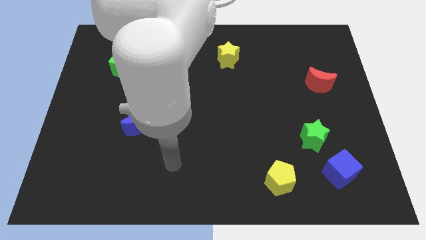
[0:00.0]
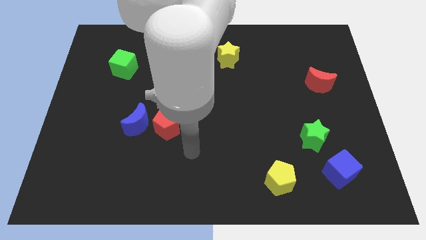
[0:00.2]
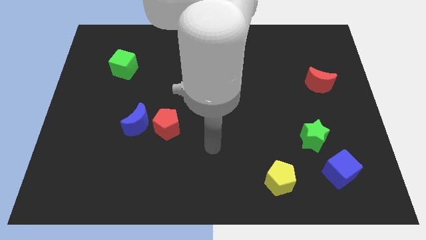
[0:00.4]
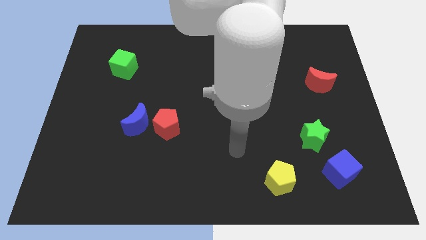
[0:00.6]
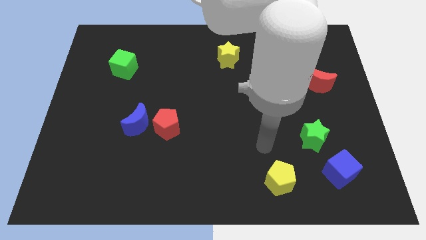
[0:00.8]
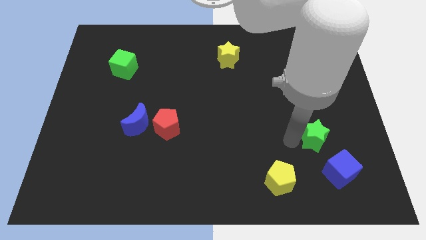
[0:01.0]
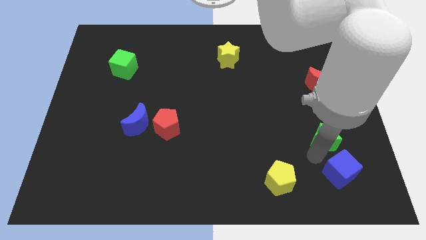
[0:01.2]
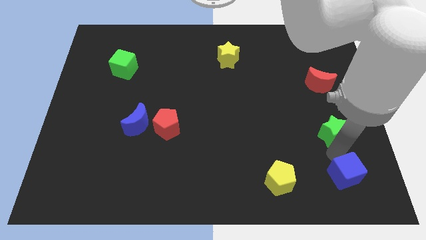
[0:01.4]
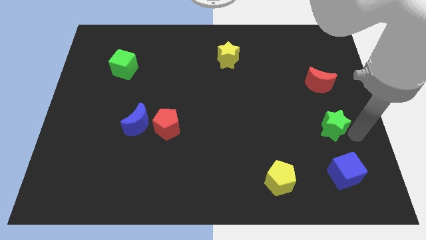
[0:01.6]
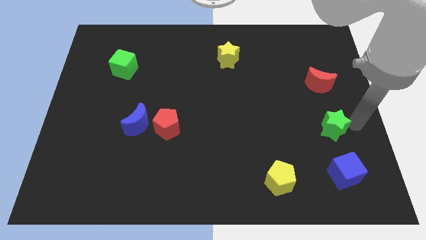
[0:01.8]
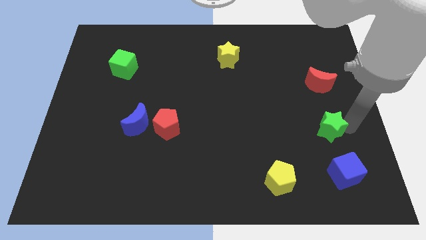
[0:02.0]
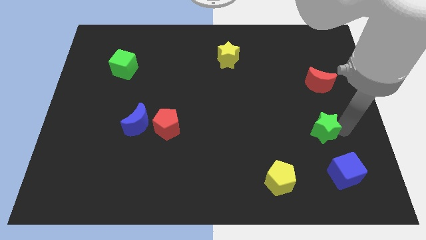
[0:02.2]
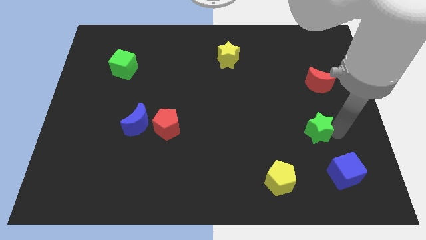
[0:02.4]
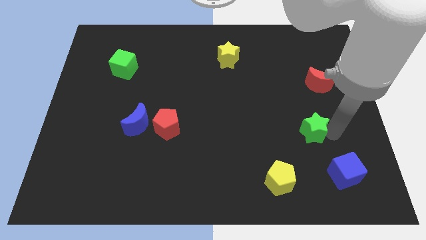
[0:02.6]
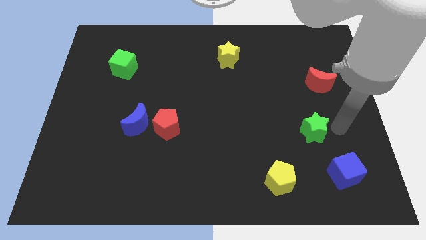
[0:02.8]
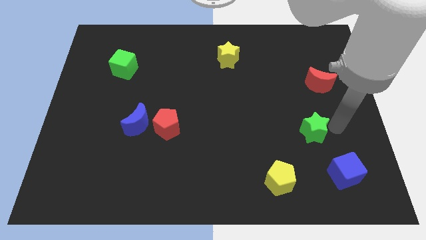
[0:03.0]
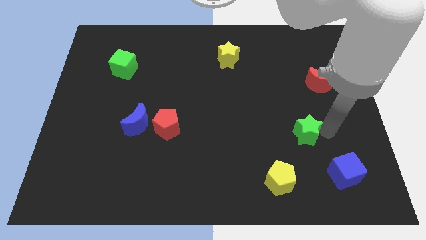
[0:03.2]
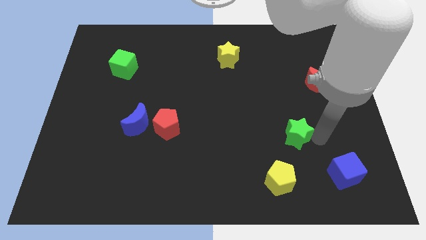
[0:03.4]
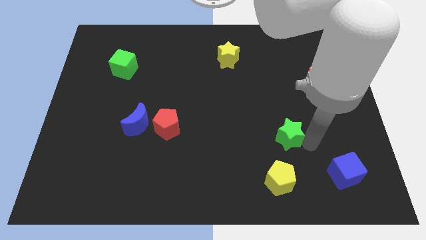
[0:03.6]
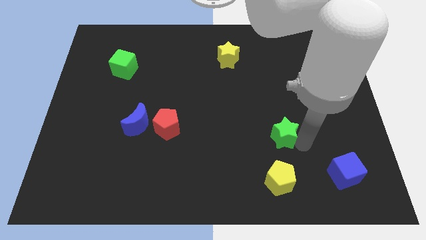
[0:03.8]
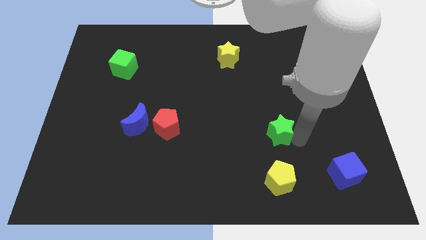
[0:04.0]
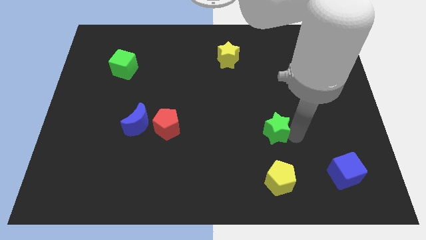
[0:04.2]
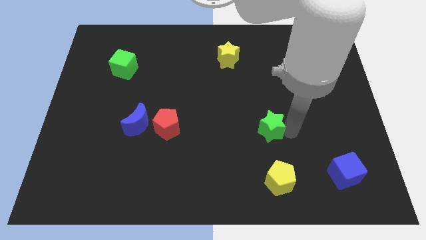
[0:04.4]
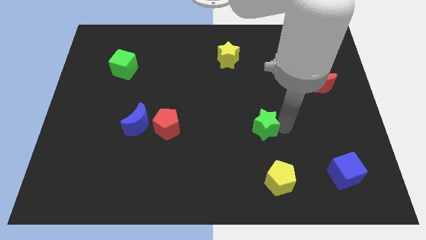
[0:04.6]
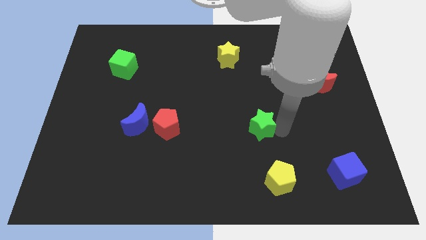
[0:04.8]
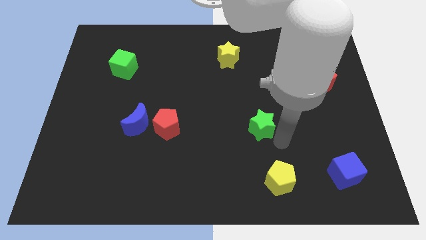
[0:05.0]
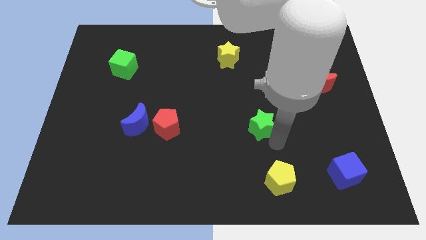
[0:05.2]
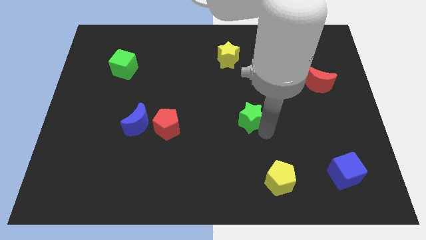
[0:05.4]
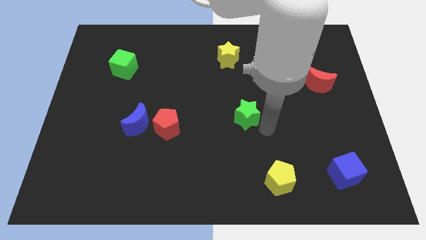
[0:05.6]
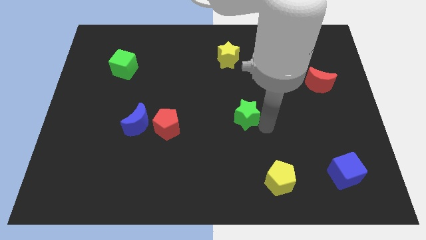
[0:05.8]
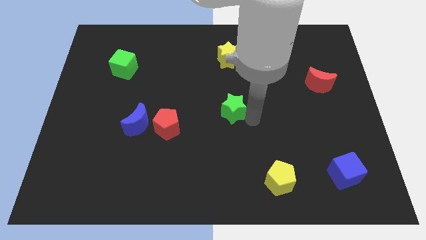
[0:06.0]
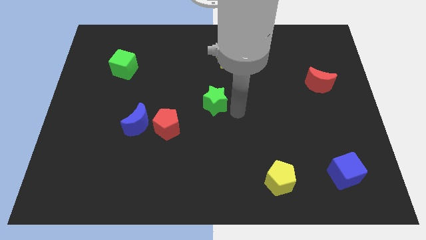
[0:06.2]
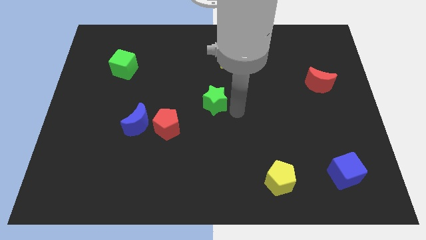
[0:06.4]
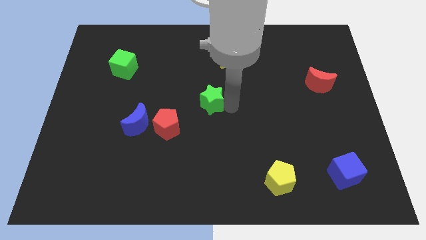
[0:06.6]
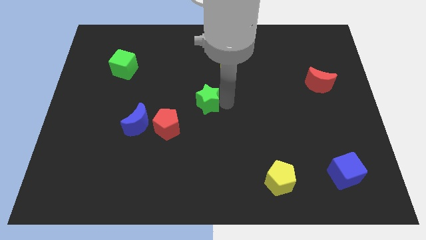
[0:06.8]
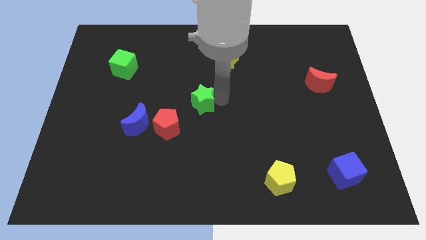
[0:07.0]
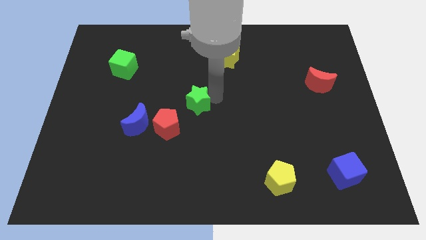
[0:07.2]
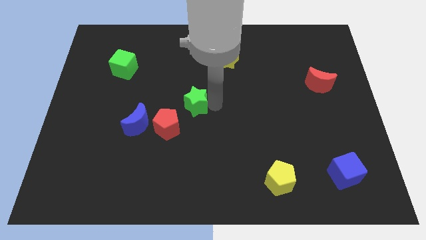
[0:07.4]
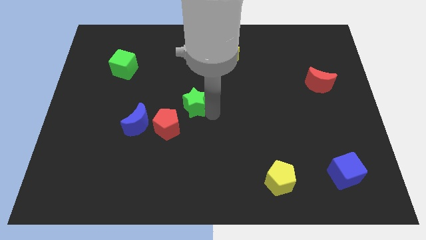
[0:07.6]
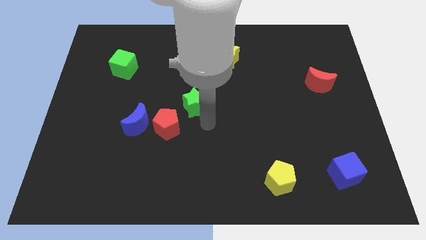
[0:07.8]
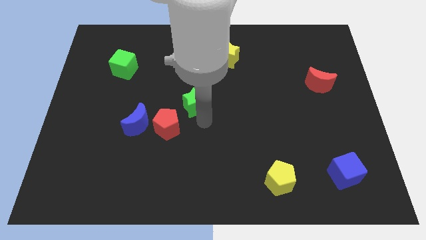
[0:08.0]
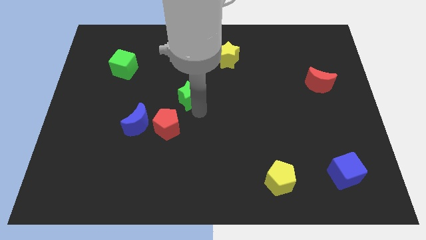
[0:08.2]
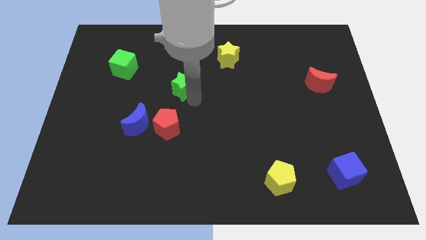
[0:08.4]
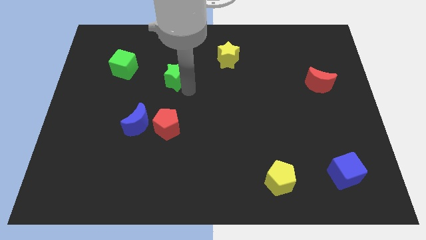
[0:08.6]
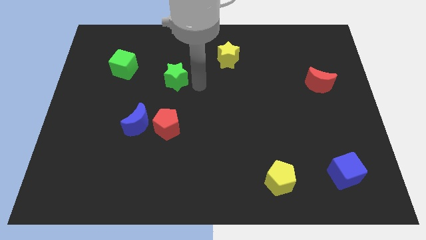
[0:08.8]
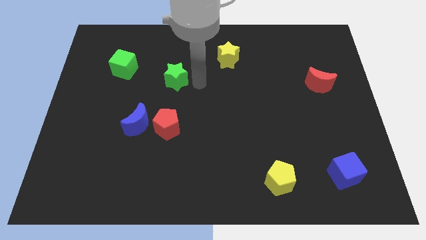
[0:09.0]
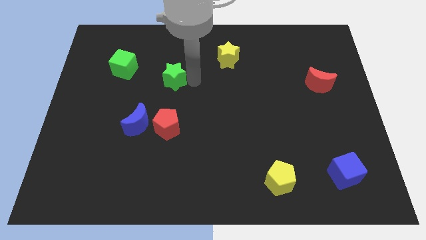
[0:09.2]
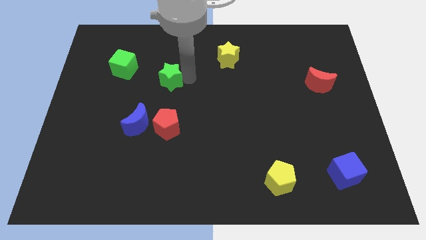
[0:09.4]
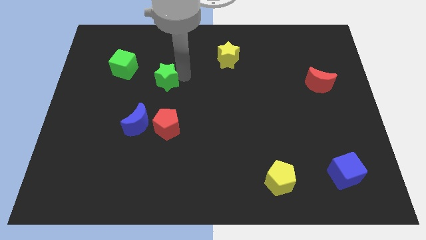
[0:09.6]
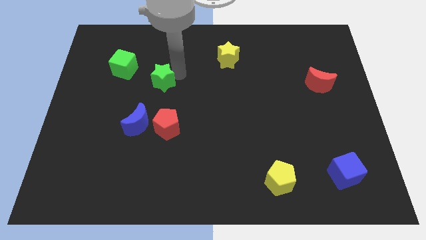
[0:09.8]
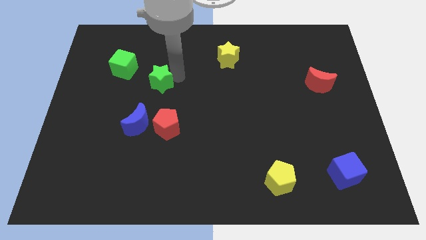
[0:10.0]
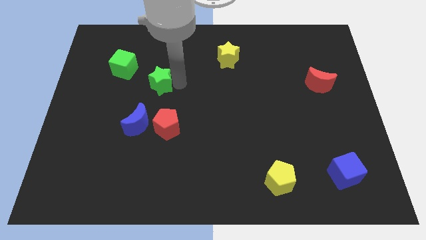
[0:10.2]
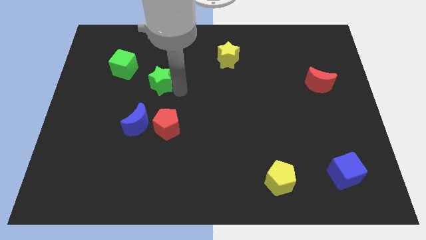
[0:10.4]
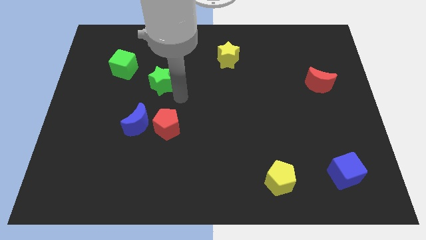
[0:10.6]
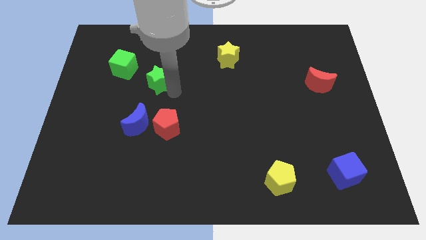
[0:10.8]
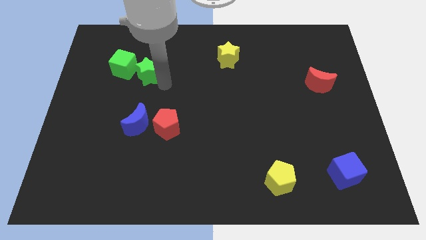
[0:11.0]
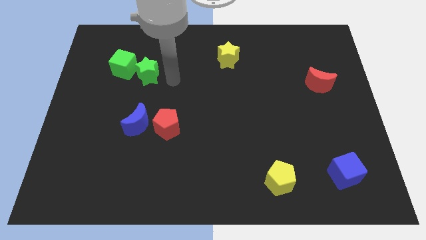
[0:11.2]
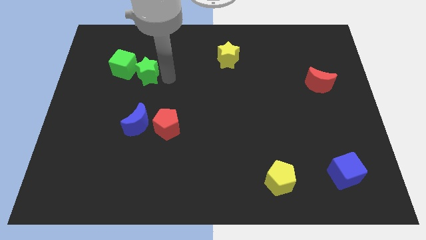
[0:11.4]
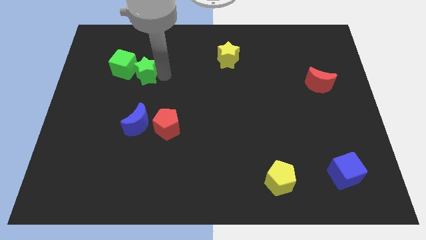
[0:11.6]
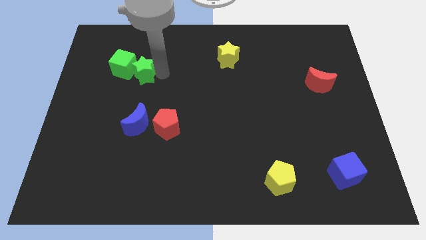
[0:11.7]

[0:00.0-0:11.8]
slide the green star close to the green cube

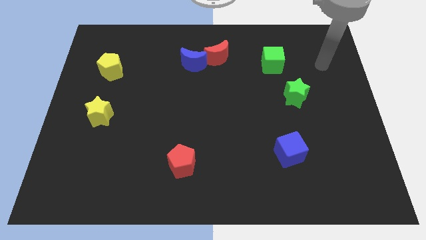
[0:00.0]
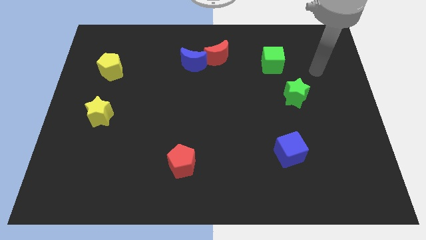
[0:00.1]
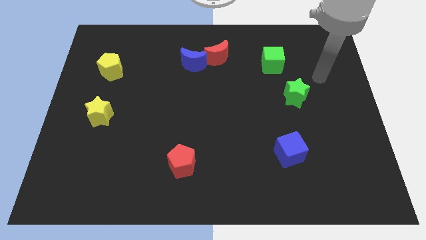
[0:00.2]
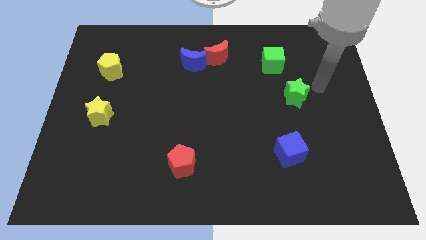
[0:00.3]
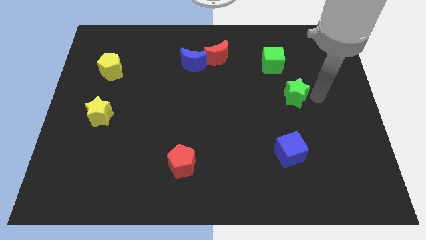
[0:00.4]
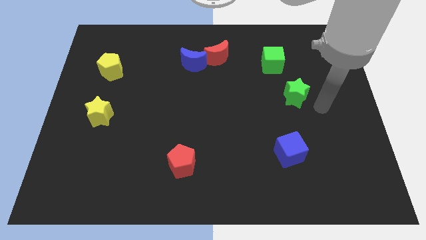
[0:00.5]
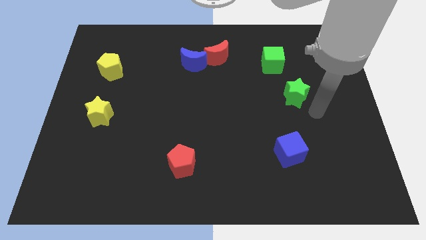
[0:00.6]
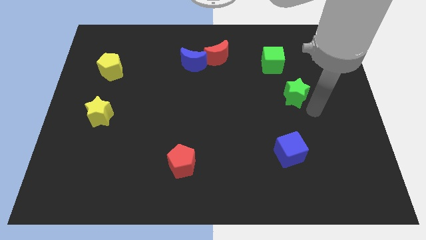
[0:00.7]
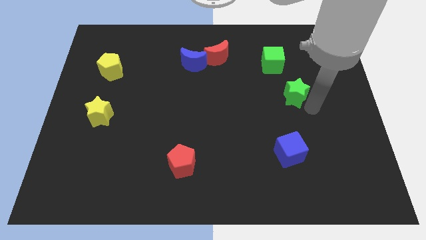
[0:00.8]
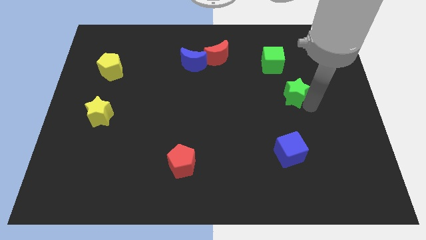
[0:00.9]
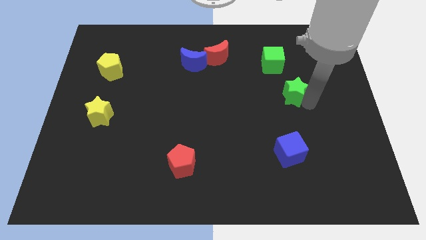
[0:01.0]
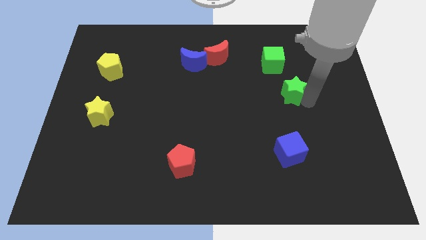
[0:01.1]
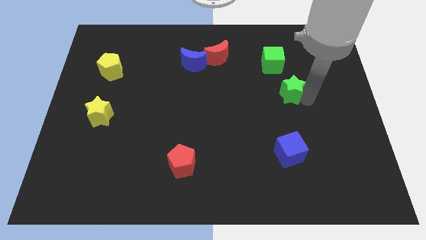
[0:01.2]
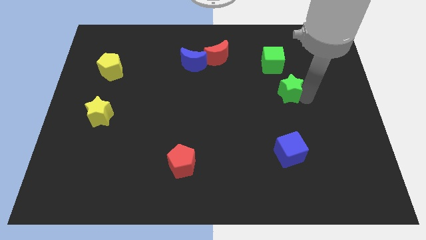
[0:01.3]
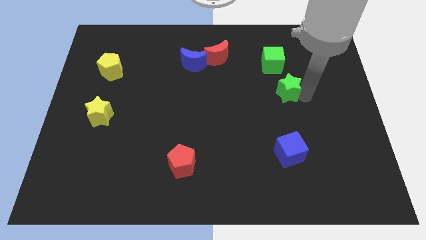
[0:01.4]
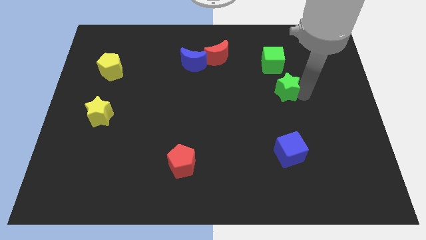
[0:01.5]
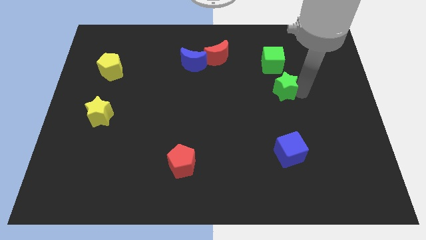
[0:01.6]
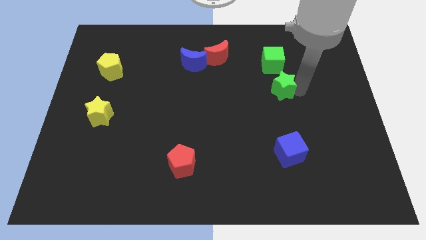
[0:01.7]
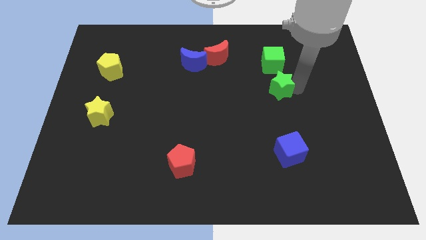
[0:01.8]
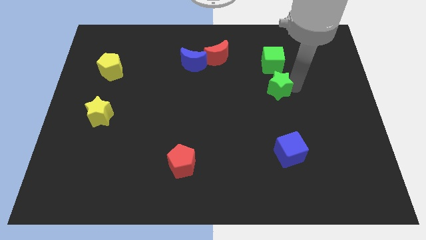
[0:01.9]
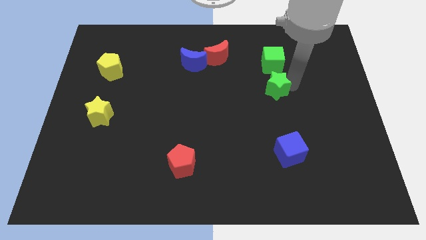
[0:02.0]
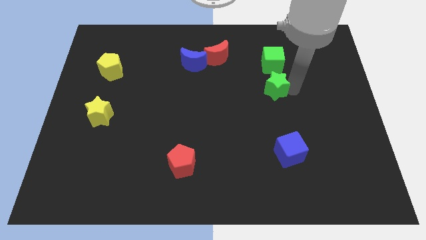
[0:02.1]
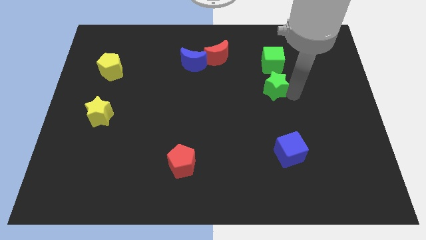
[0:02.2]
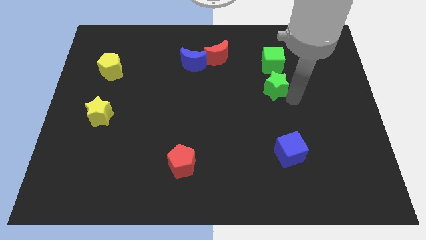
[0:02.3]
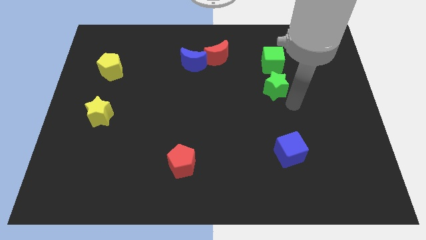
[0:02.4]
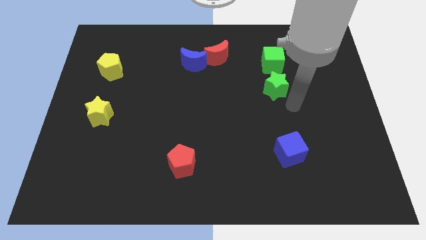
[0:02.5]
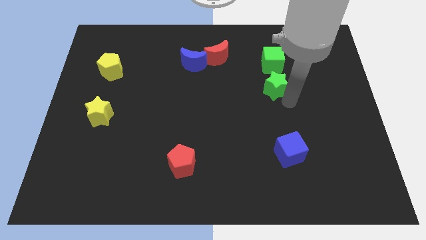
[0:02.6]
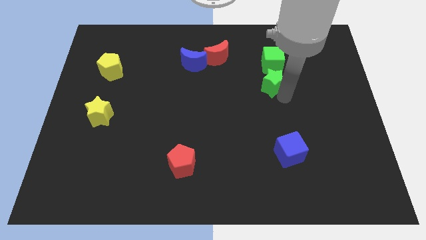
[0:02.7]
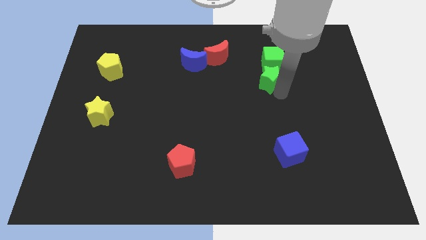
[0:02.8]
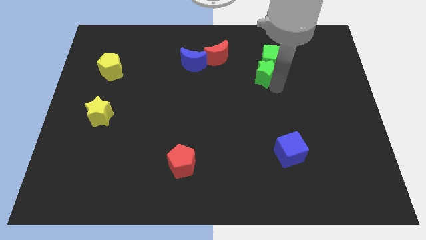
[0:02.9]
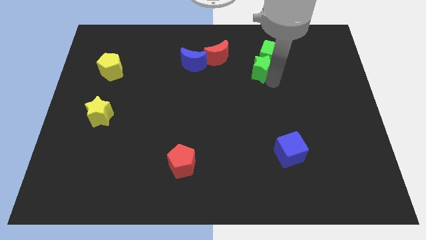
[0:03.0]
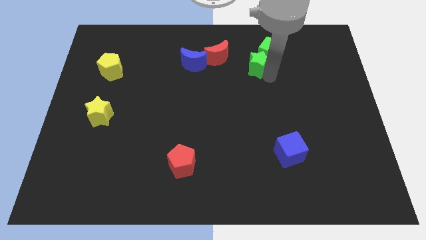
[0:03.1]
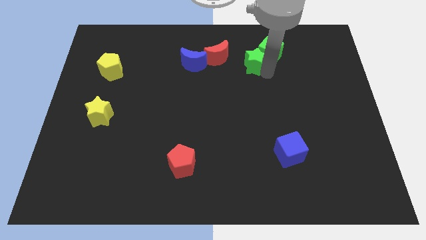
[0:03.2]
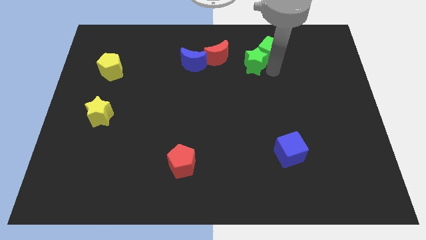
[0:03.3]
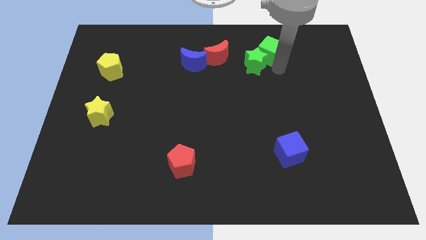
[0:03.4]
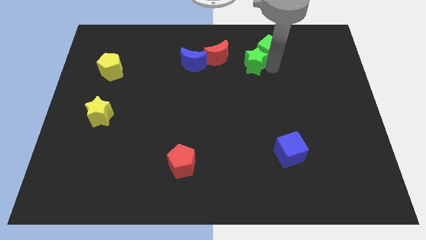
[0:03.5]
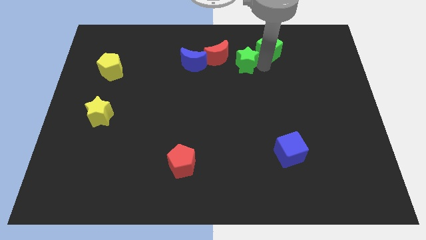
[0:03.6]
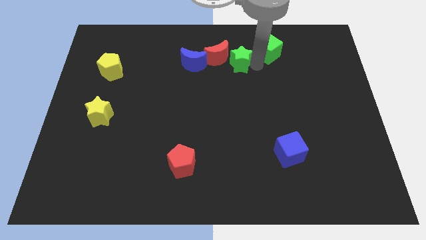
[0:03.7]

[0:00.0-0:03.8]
move the green star towards the red moon
